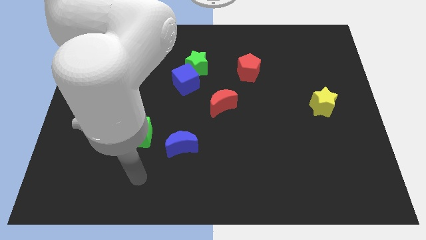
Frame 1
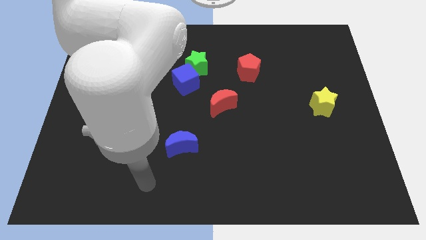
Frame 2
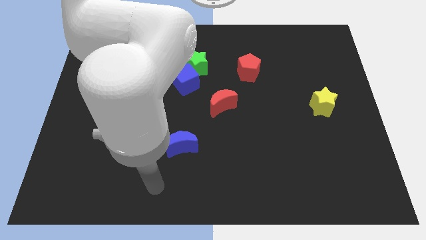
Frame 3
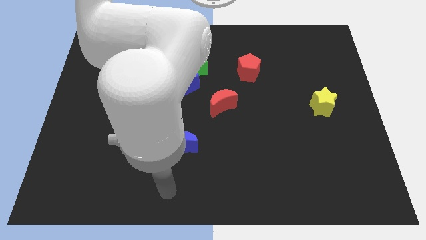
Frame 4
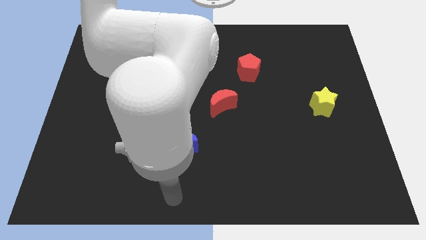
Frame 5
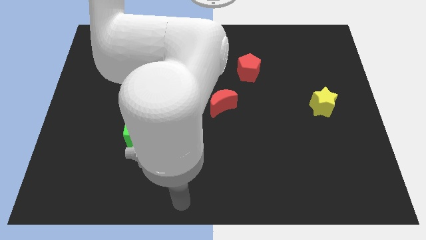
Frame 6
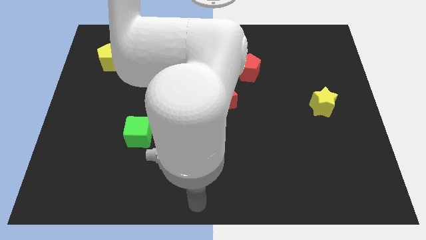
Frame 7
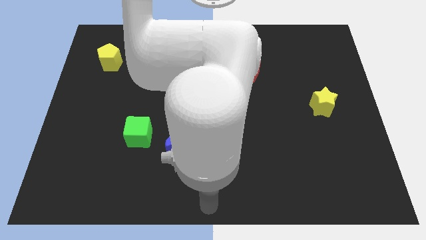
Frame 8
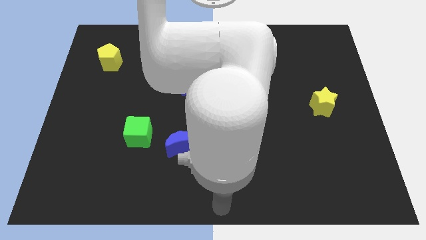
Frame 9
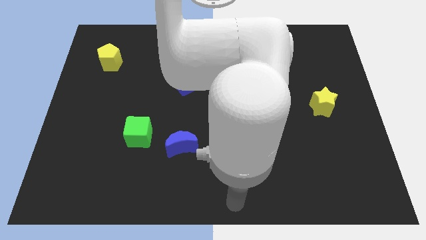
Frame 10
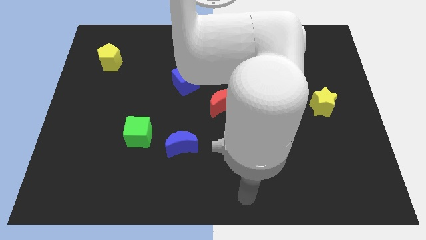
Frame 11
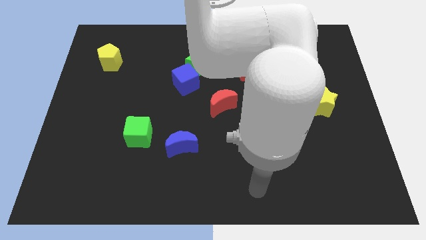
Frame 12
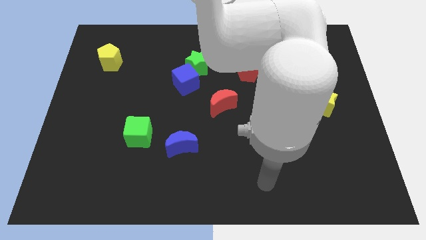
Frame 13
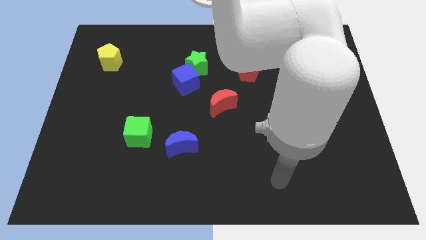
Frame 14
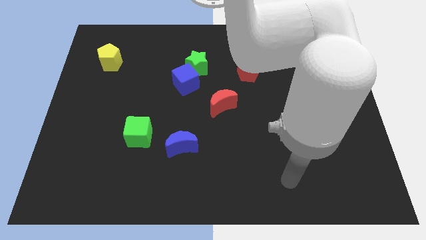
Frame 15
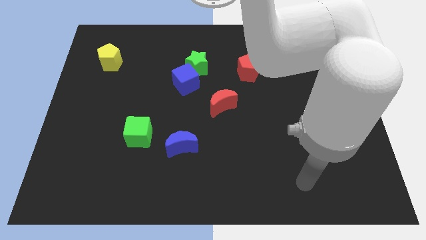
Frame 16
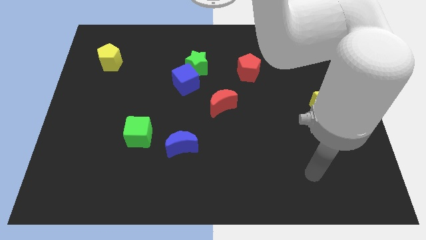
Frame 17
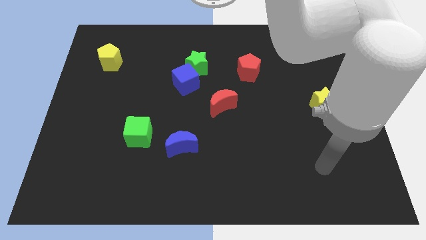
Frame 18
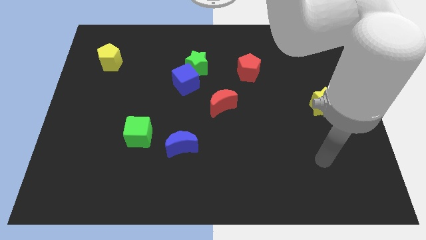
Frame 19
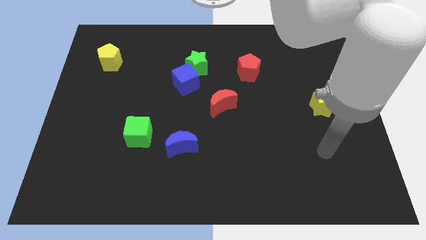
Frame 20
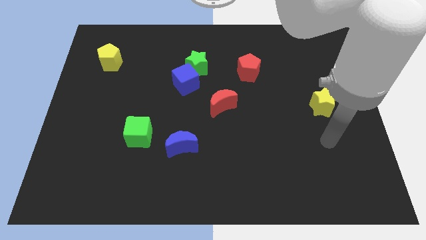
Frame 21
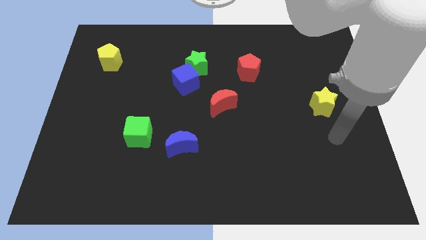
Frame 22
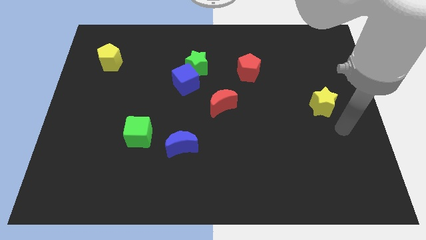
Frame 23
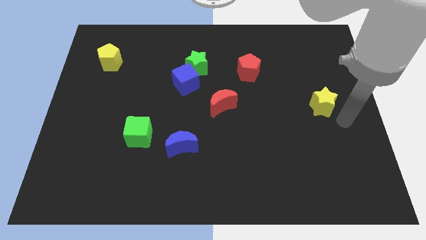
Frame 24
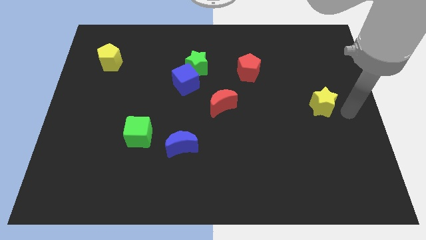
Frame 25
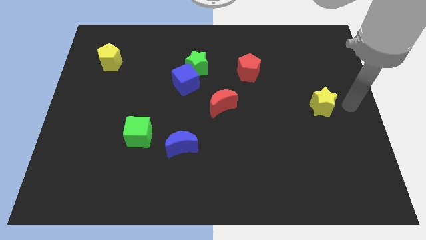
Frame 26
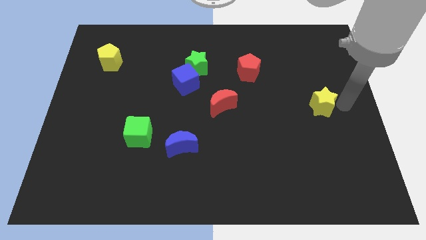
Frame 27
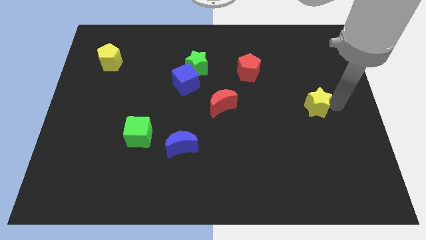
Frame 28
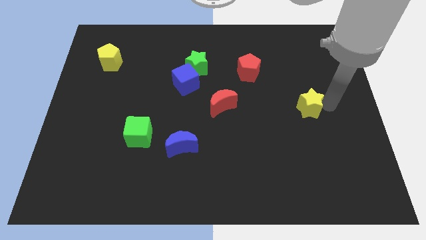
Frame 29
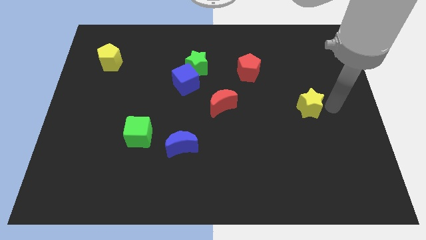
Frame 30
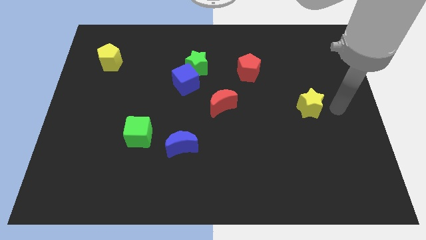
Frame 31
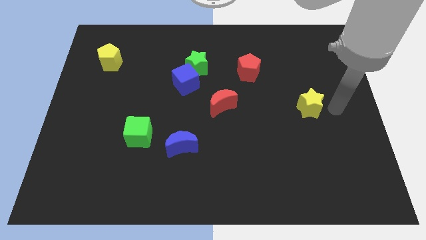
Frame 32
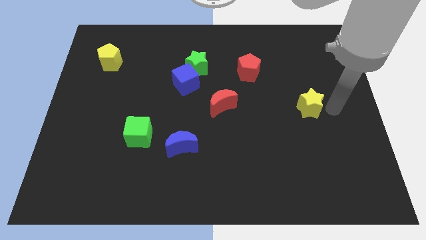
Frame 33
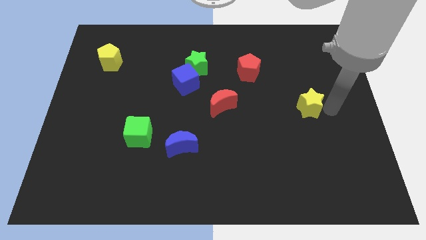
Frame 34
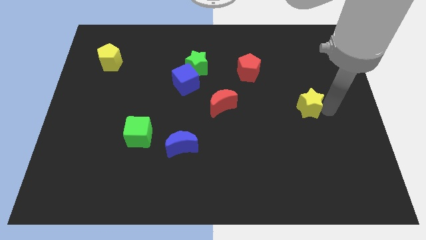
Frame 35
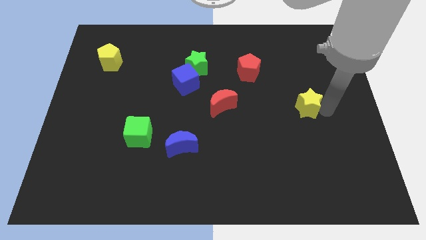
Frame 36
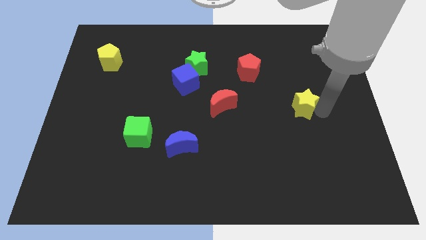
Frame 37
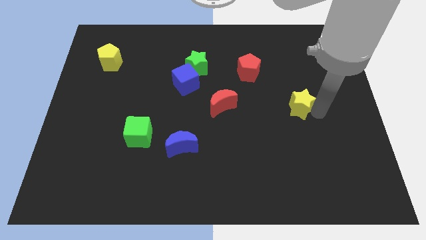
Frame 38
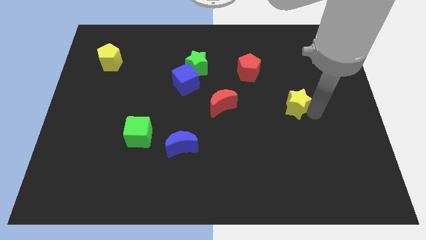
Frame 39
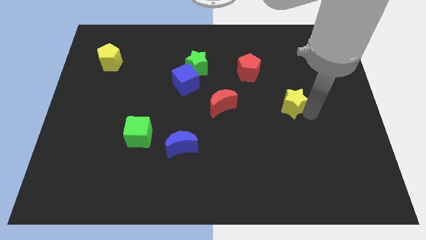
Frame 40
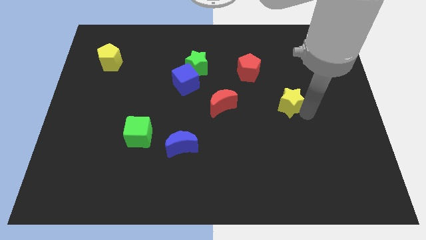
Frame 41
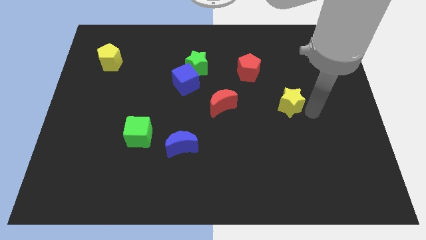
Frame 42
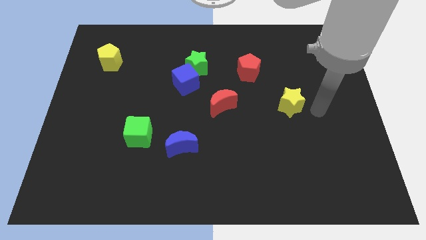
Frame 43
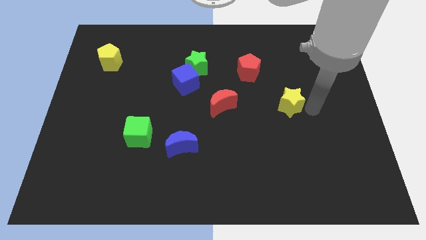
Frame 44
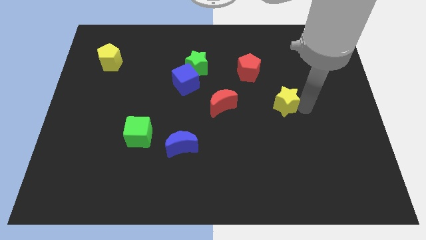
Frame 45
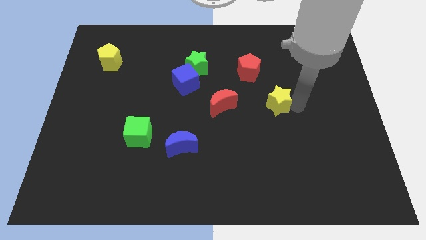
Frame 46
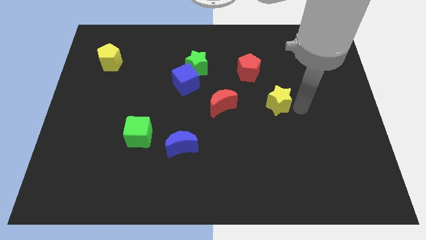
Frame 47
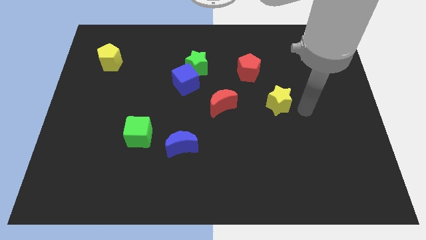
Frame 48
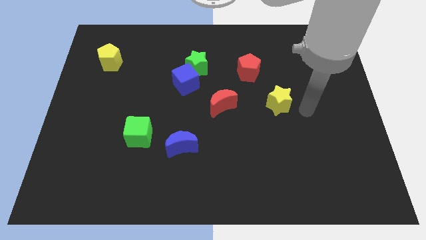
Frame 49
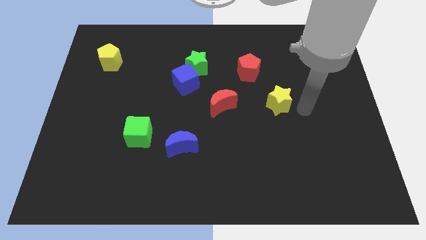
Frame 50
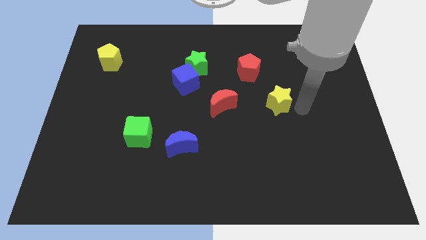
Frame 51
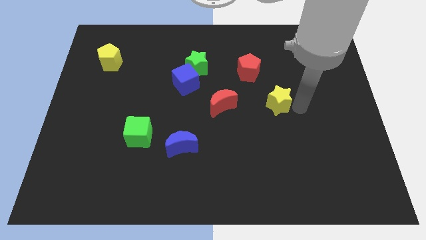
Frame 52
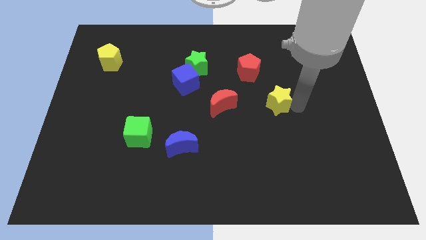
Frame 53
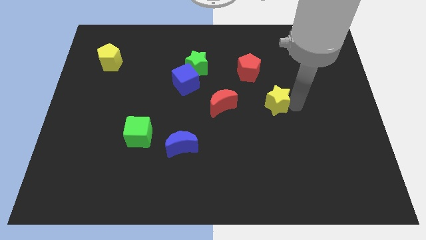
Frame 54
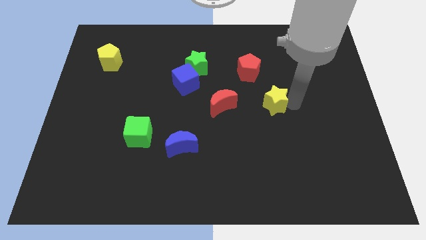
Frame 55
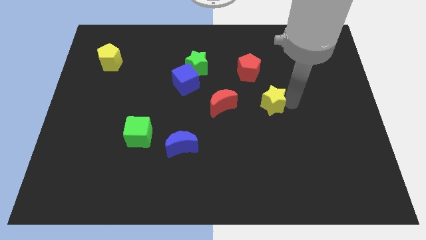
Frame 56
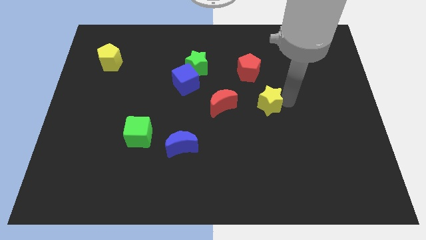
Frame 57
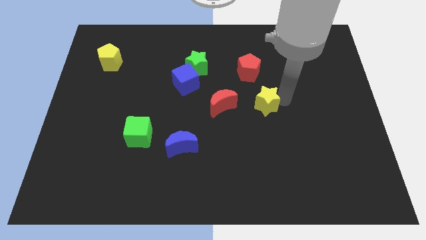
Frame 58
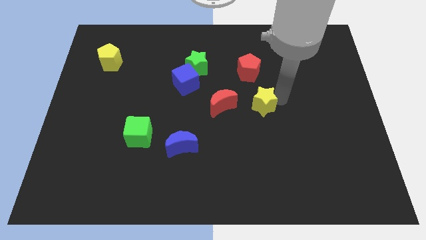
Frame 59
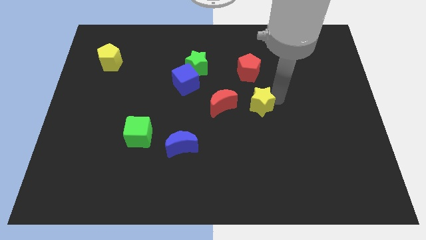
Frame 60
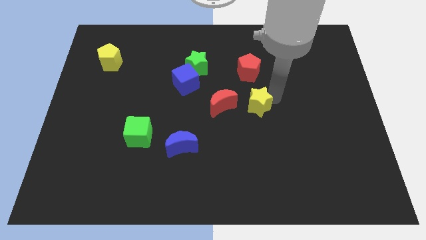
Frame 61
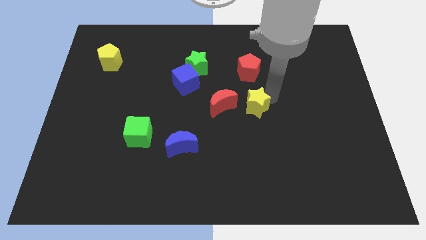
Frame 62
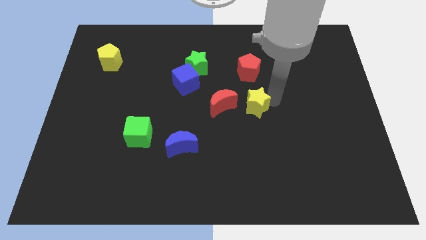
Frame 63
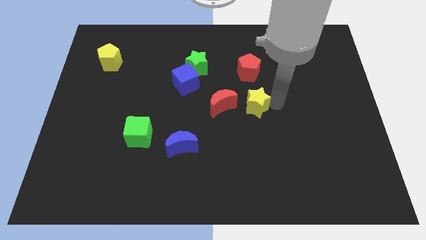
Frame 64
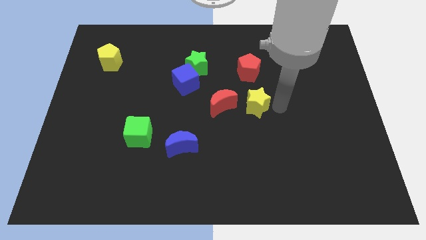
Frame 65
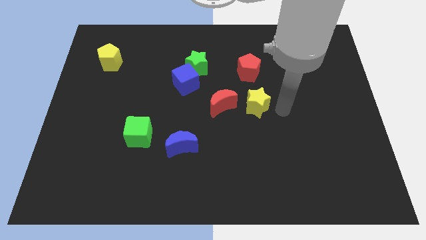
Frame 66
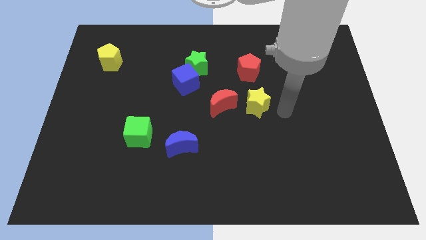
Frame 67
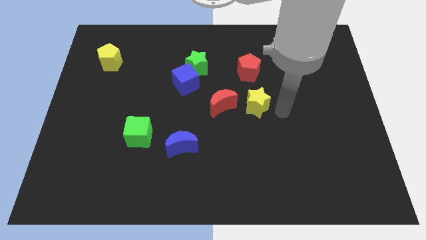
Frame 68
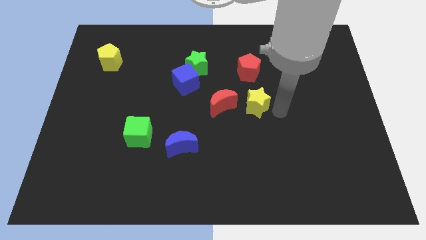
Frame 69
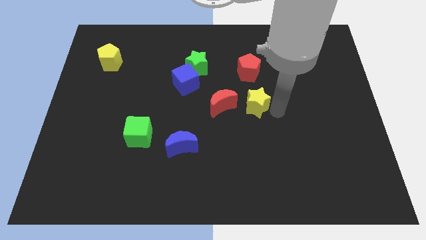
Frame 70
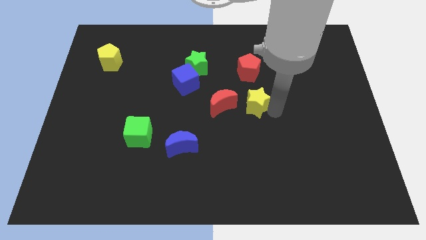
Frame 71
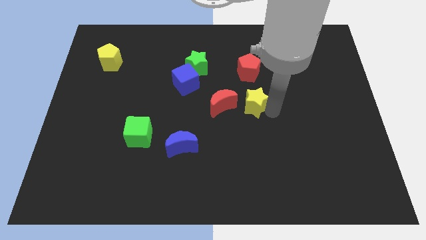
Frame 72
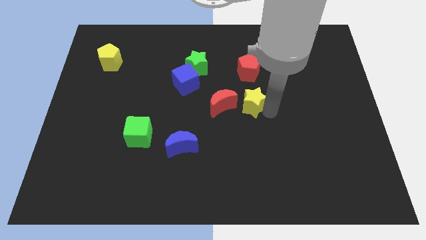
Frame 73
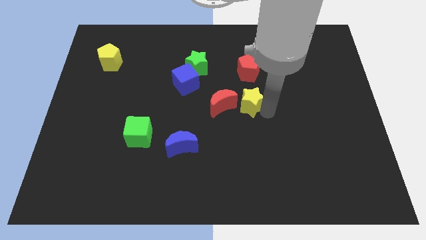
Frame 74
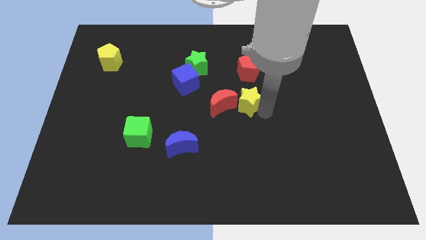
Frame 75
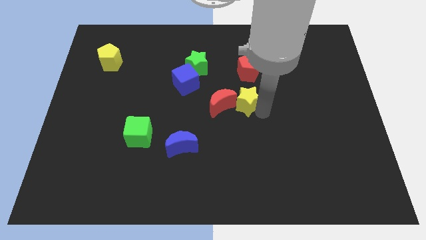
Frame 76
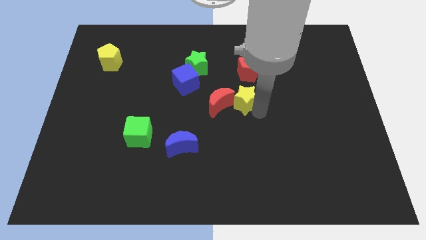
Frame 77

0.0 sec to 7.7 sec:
put the yellow star next to the red moon
